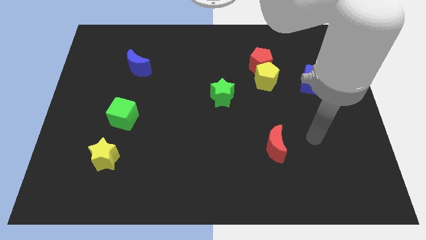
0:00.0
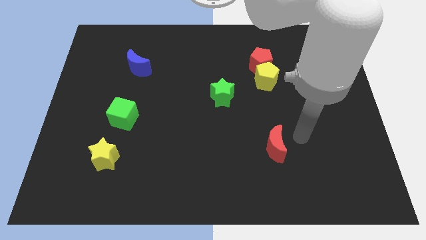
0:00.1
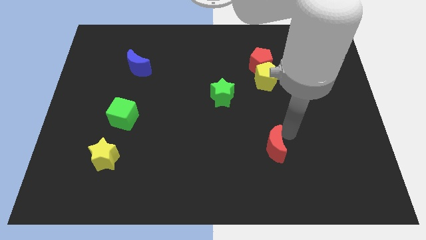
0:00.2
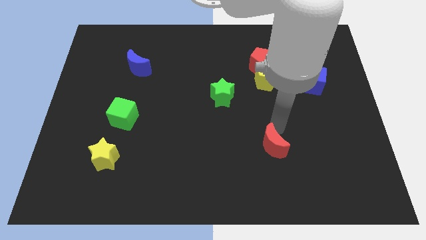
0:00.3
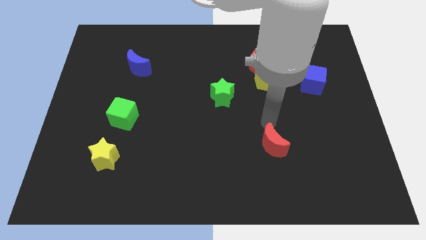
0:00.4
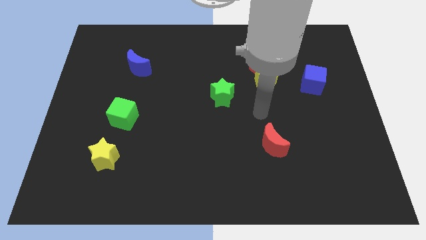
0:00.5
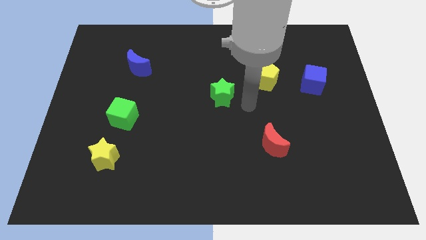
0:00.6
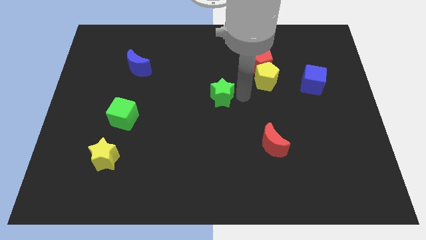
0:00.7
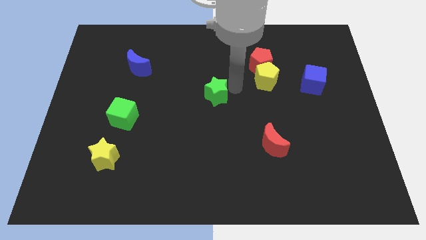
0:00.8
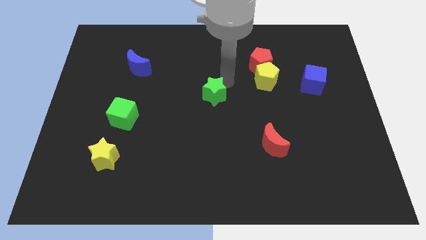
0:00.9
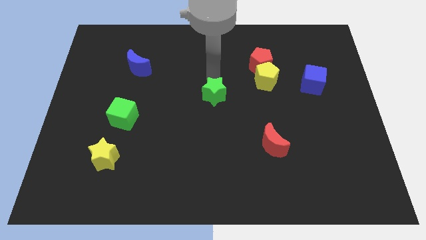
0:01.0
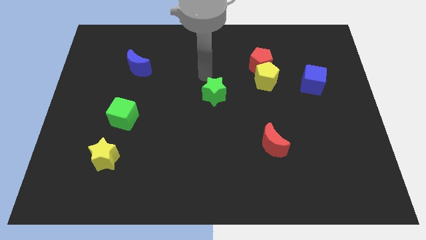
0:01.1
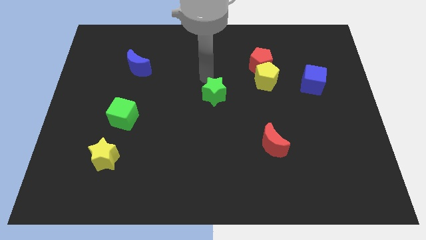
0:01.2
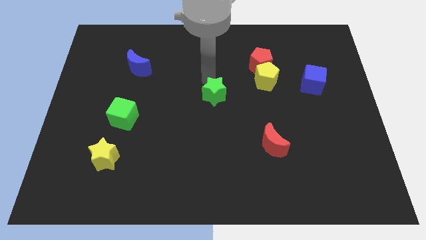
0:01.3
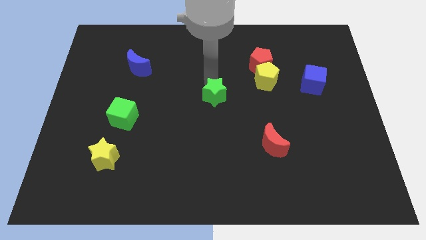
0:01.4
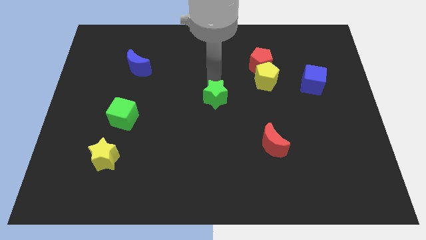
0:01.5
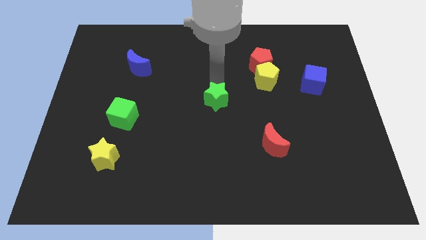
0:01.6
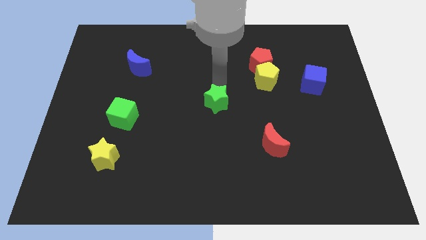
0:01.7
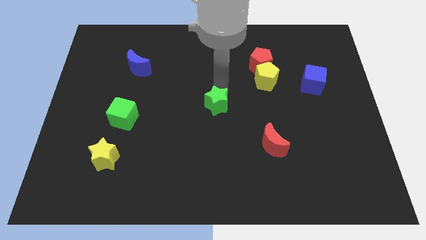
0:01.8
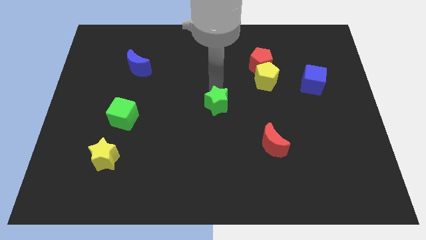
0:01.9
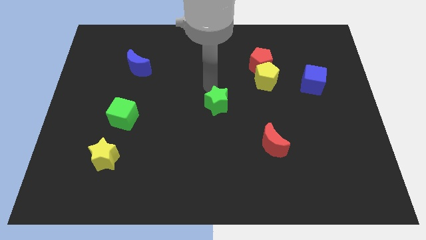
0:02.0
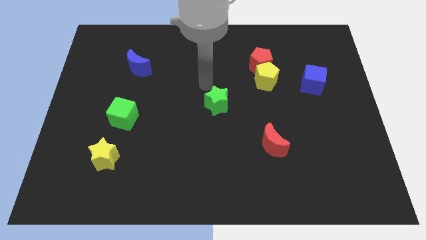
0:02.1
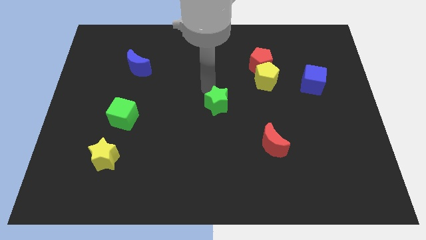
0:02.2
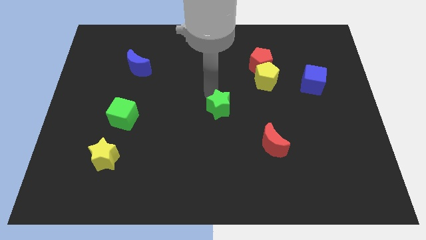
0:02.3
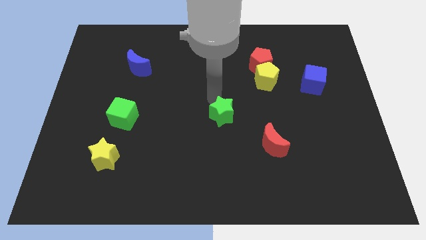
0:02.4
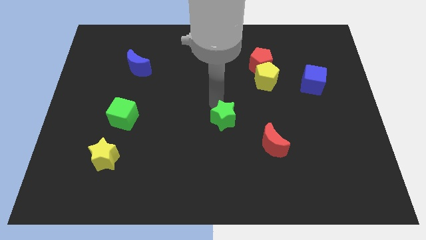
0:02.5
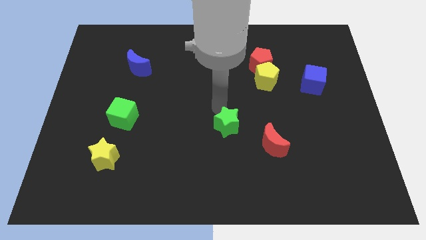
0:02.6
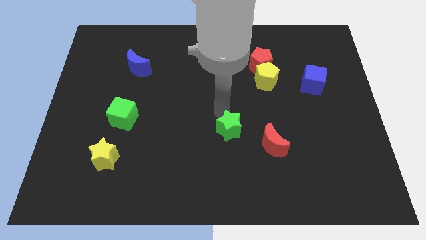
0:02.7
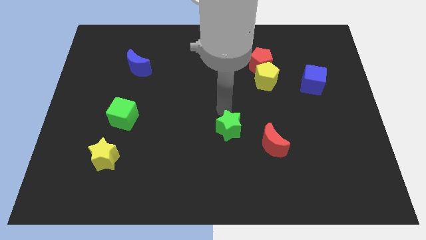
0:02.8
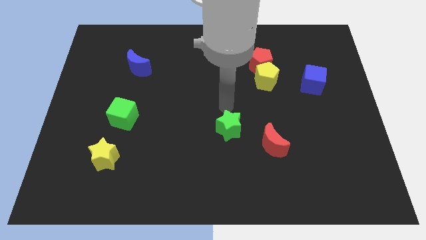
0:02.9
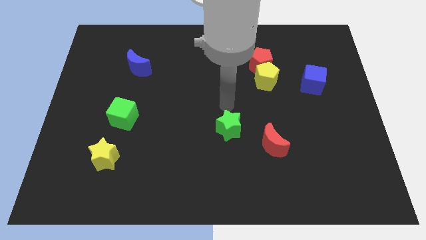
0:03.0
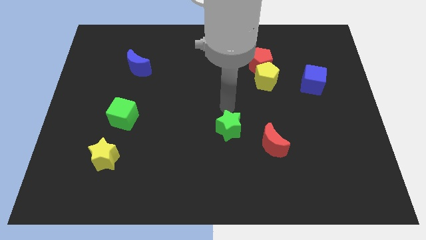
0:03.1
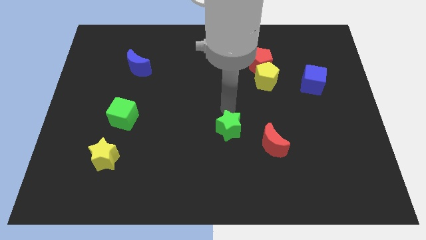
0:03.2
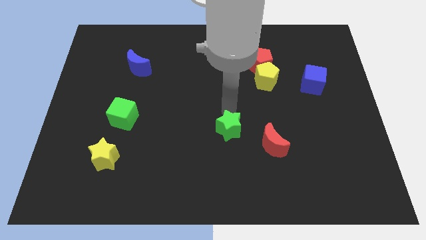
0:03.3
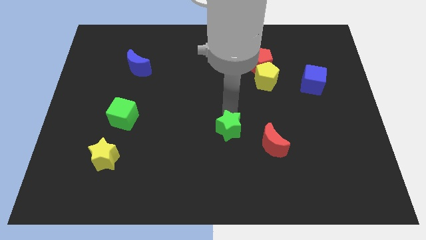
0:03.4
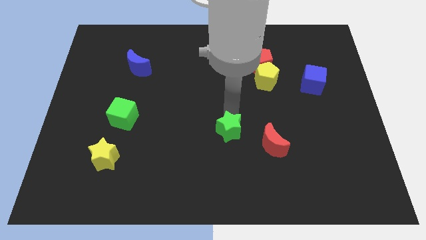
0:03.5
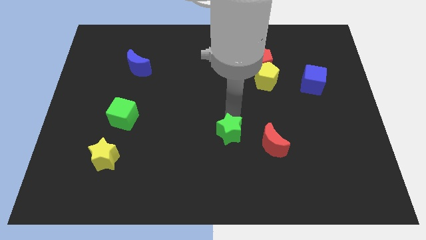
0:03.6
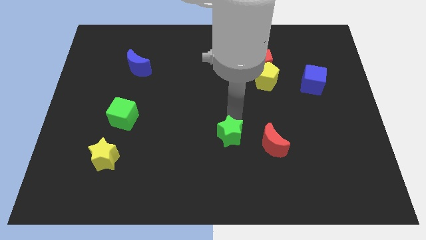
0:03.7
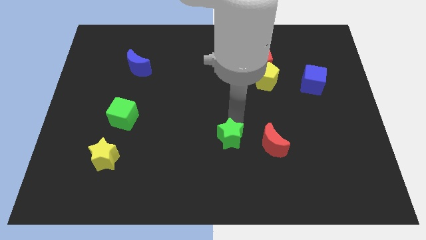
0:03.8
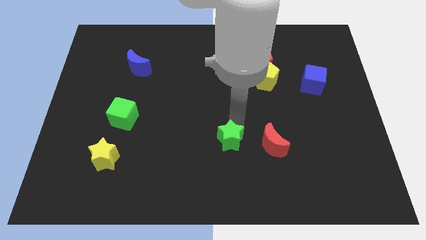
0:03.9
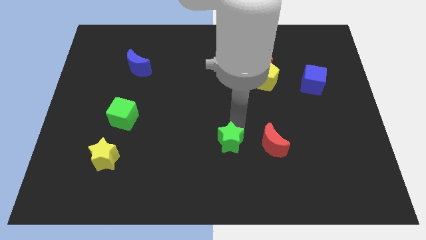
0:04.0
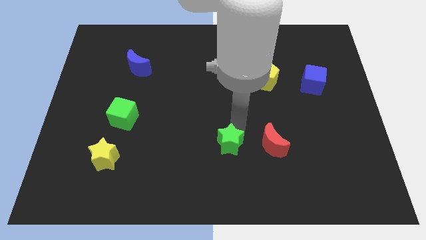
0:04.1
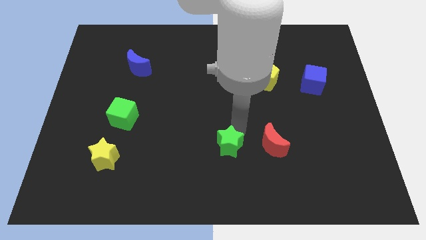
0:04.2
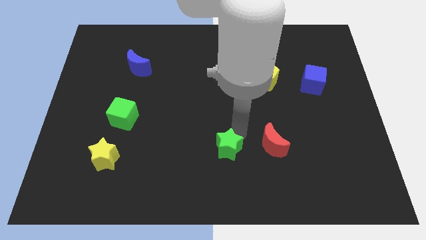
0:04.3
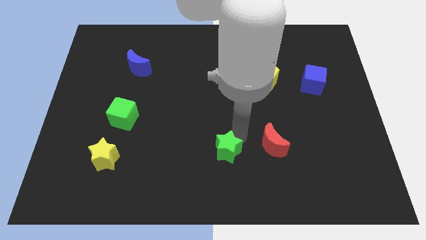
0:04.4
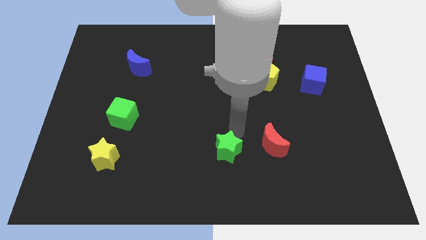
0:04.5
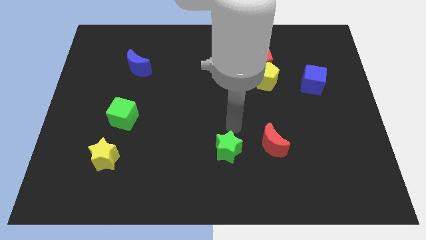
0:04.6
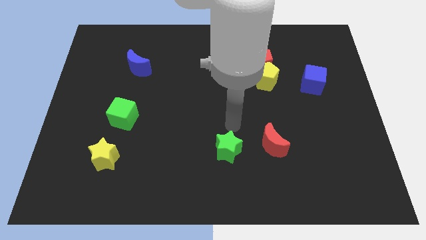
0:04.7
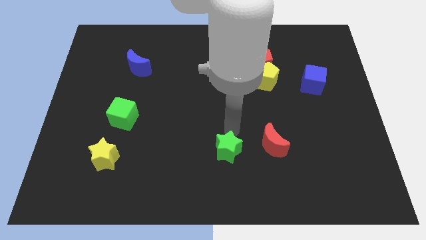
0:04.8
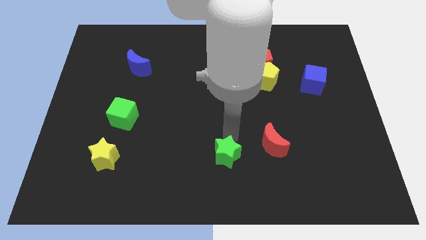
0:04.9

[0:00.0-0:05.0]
slide the green star to the bottom

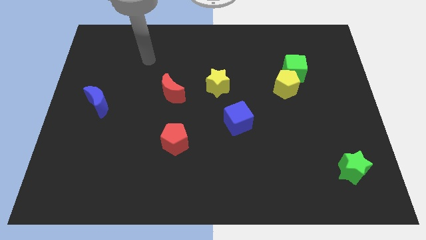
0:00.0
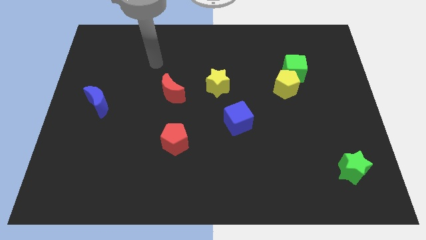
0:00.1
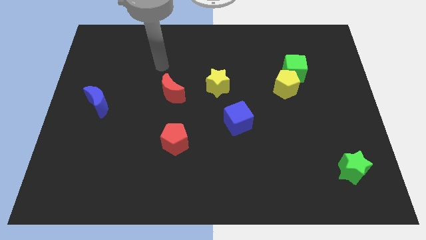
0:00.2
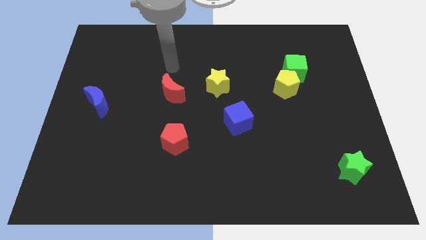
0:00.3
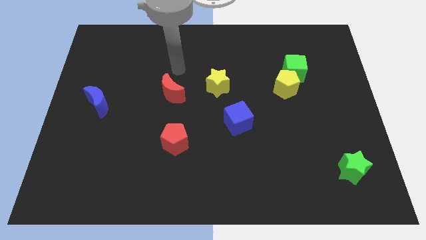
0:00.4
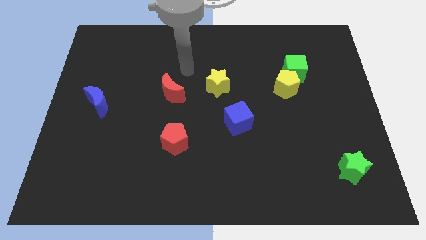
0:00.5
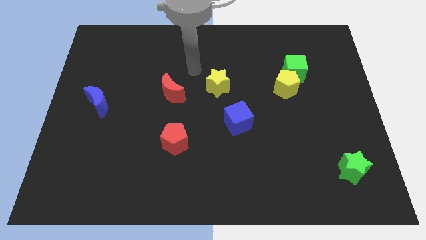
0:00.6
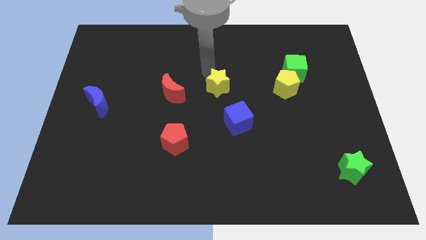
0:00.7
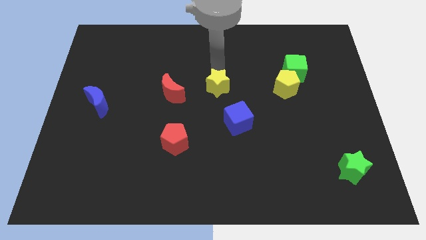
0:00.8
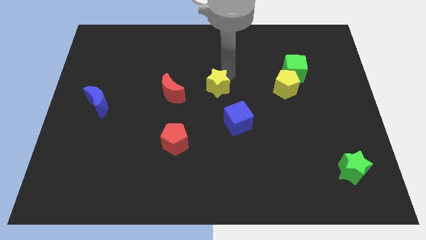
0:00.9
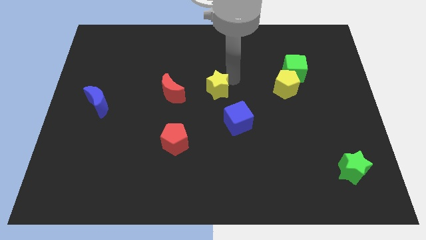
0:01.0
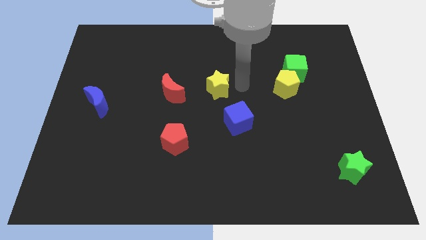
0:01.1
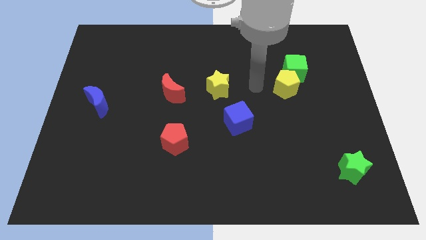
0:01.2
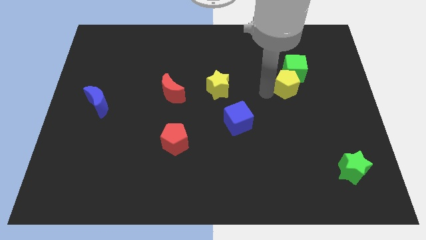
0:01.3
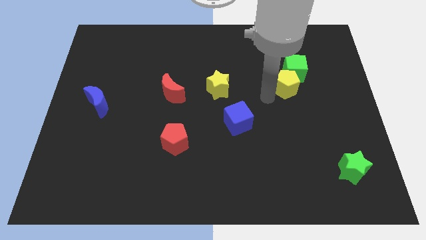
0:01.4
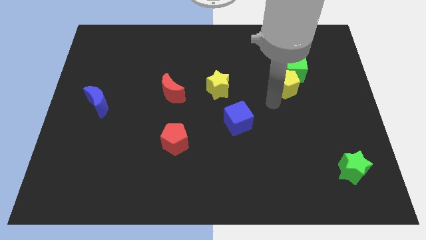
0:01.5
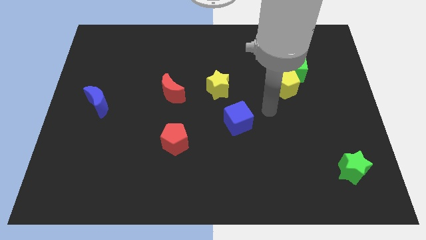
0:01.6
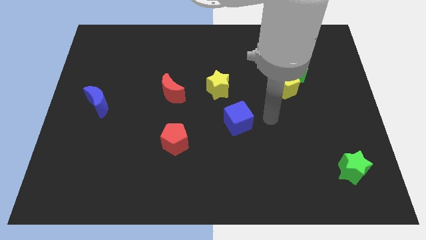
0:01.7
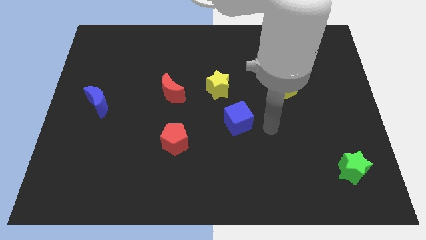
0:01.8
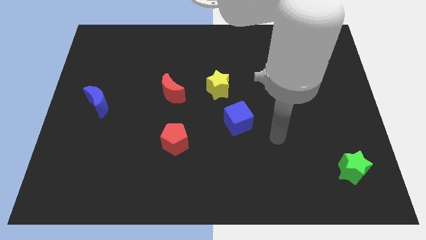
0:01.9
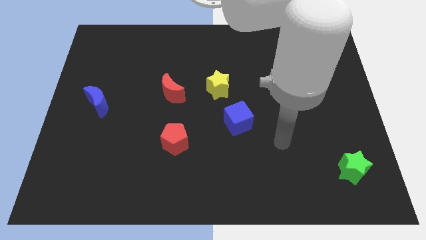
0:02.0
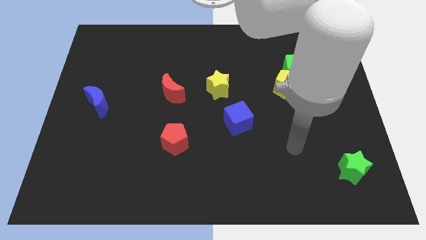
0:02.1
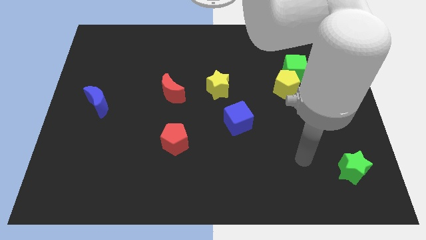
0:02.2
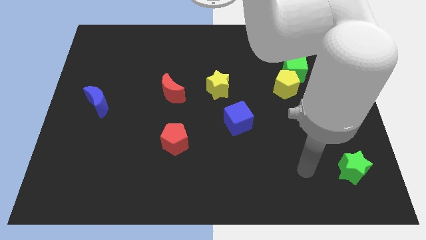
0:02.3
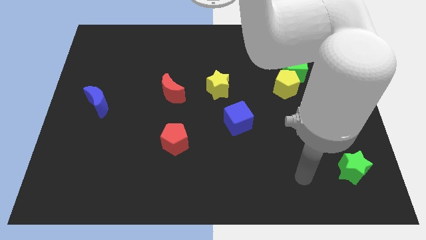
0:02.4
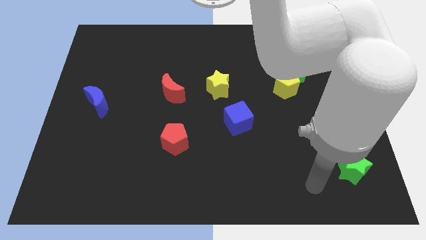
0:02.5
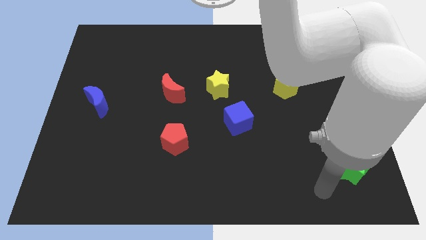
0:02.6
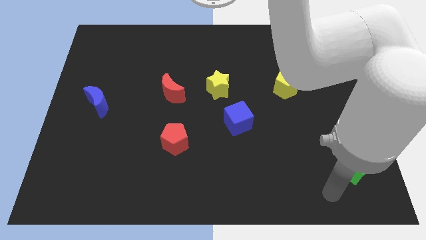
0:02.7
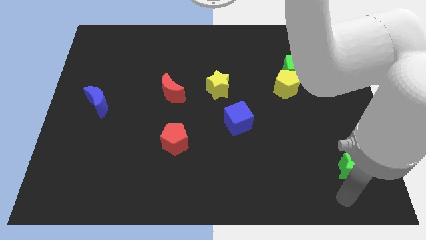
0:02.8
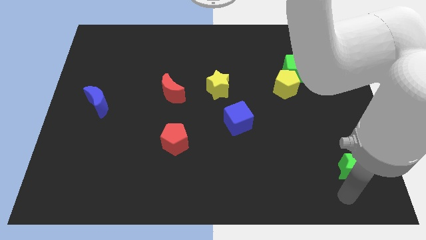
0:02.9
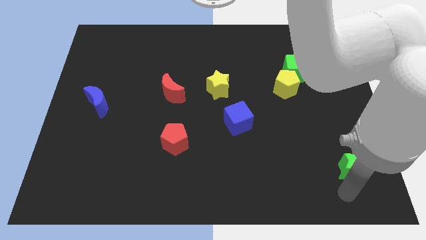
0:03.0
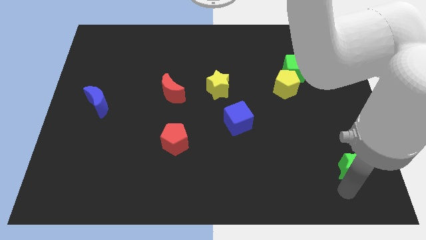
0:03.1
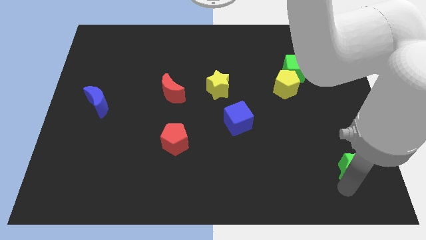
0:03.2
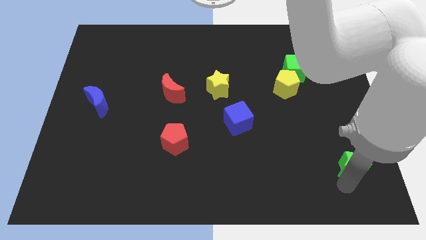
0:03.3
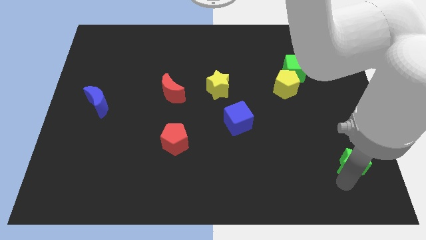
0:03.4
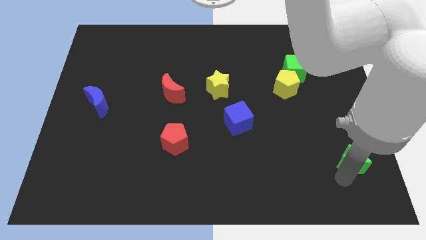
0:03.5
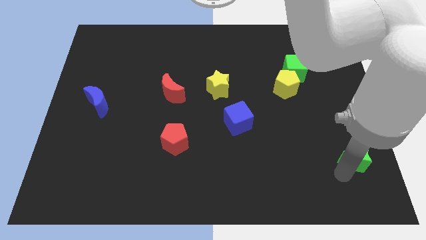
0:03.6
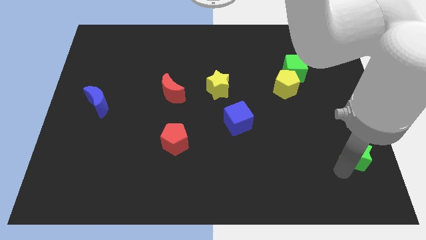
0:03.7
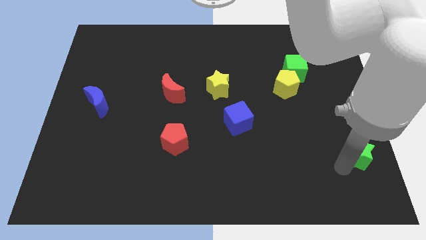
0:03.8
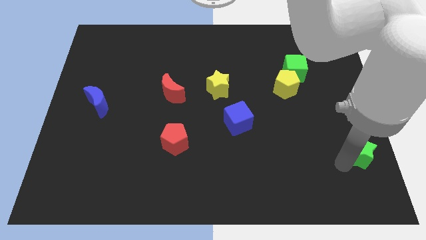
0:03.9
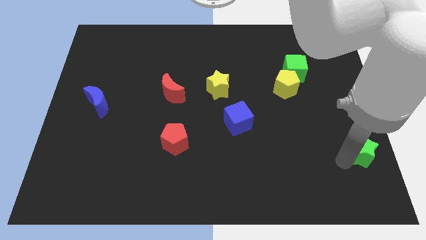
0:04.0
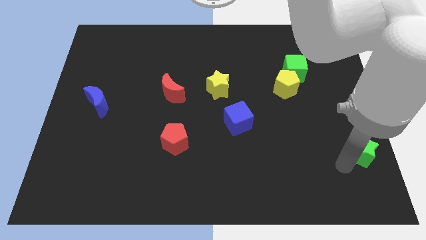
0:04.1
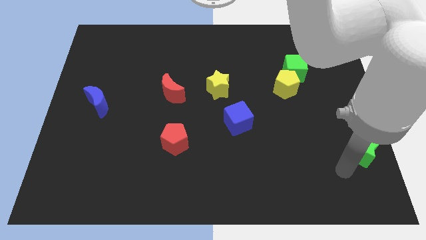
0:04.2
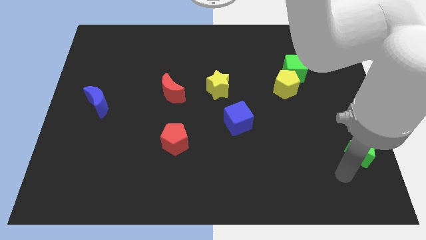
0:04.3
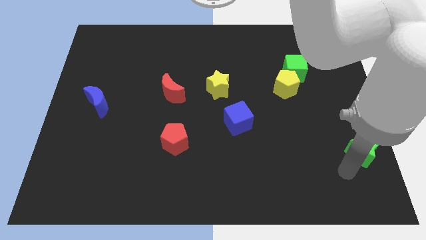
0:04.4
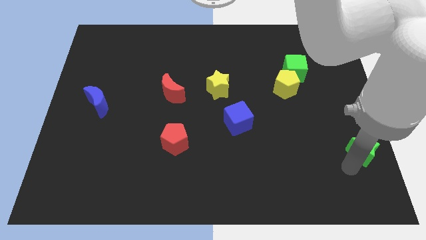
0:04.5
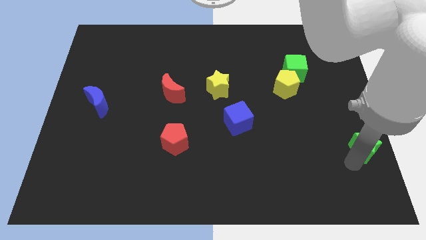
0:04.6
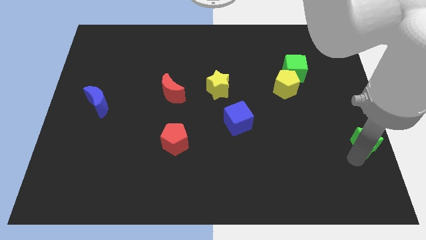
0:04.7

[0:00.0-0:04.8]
slide the green star to the center right
